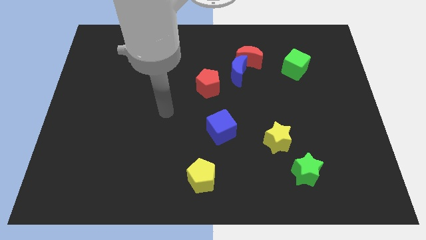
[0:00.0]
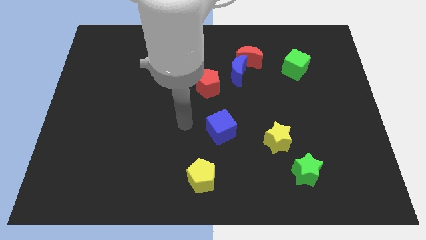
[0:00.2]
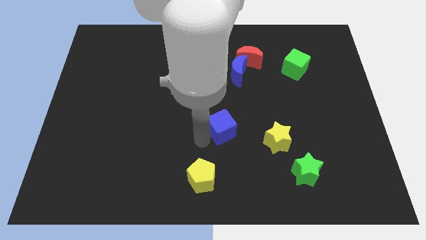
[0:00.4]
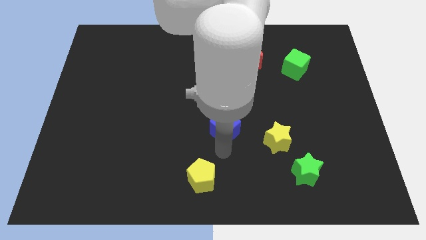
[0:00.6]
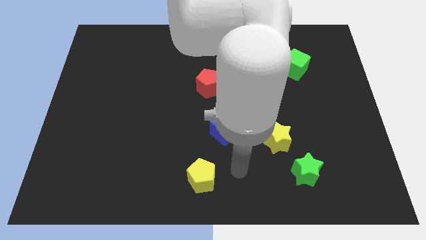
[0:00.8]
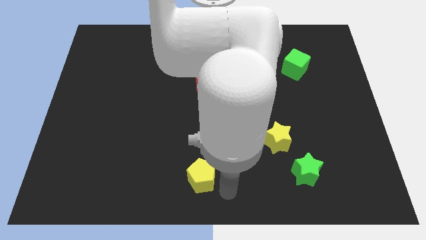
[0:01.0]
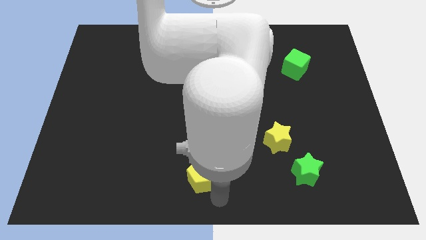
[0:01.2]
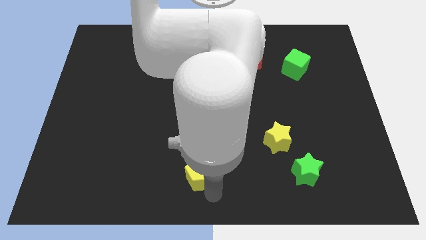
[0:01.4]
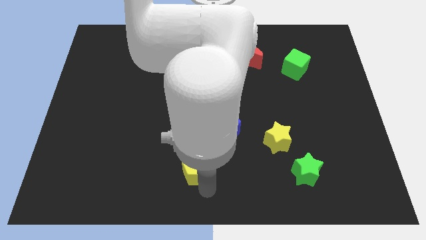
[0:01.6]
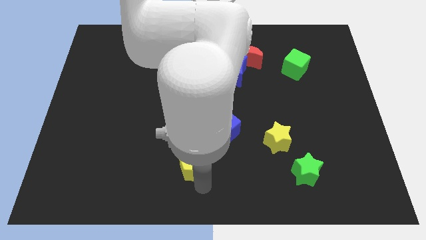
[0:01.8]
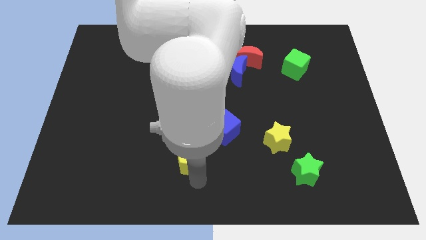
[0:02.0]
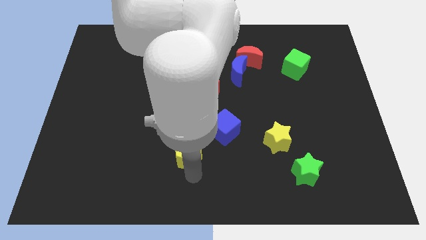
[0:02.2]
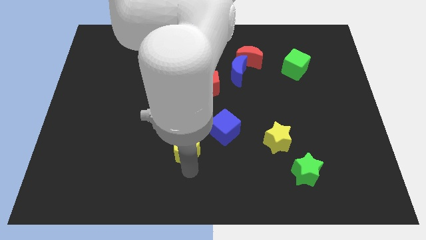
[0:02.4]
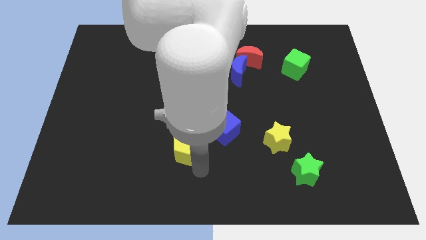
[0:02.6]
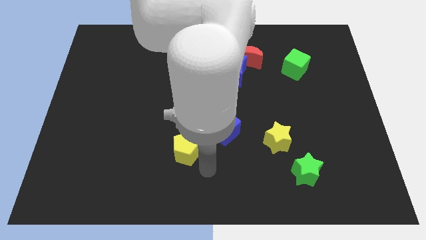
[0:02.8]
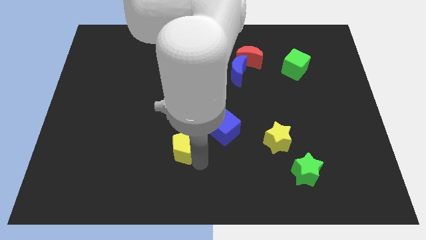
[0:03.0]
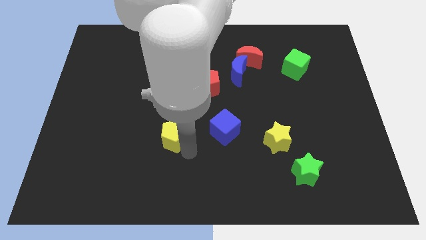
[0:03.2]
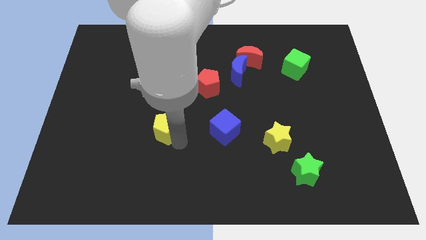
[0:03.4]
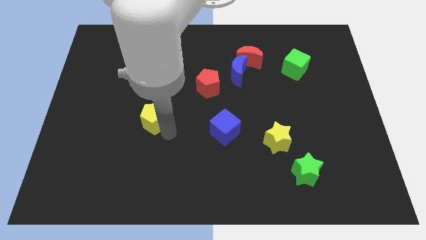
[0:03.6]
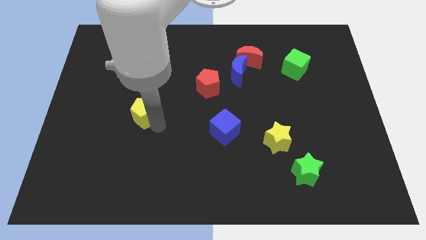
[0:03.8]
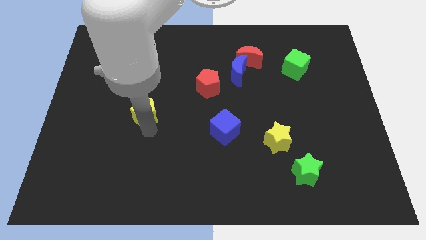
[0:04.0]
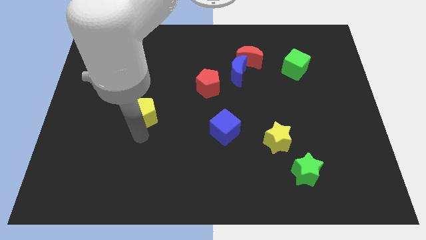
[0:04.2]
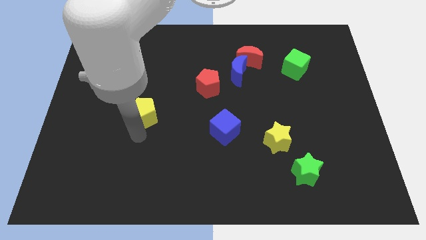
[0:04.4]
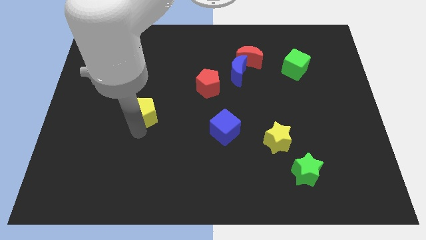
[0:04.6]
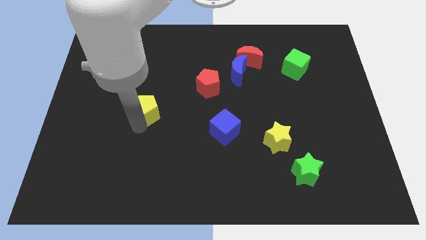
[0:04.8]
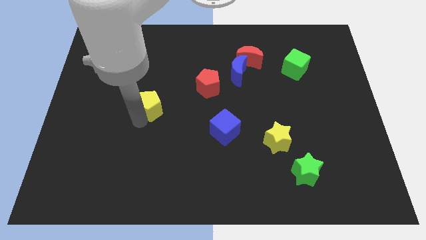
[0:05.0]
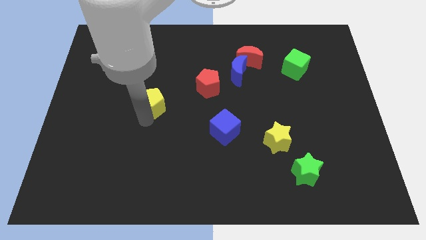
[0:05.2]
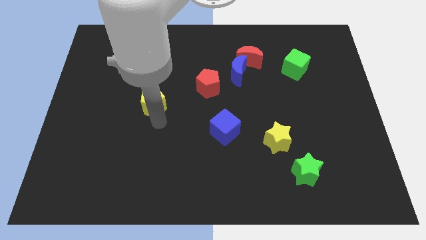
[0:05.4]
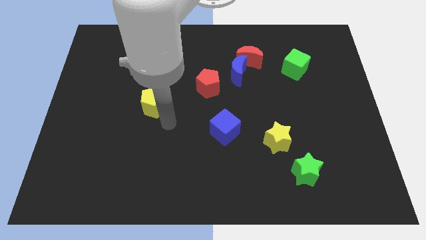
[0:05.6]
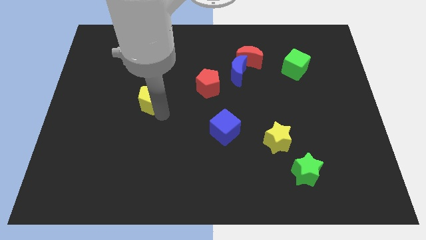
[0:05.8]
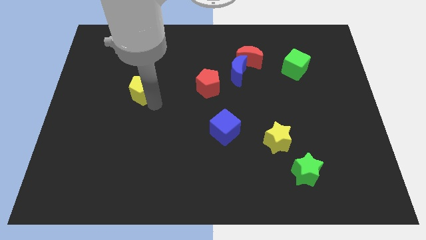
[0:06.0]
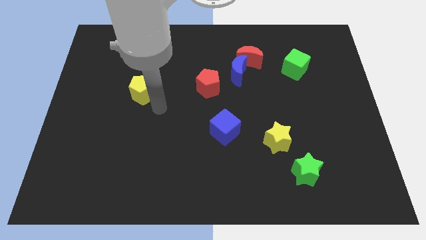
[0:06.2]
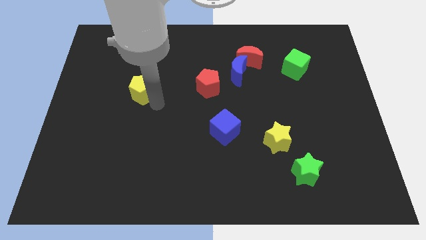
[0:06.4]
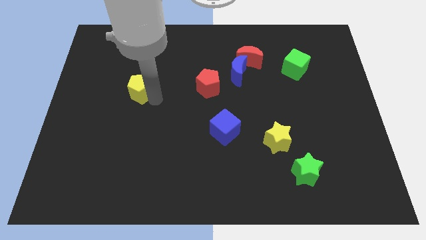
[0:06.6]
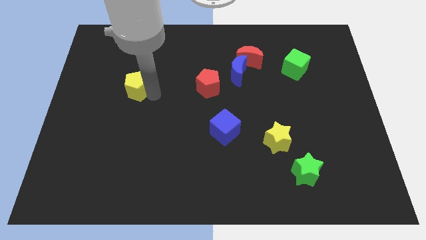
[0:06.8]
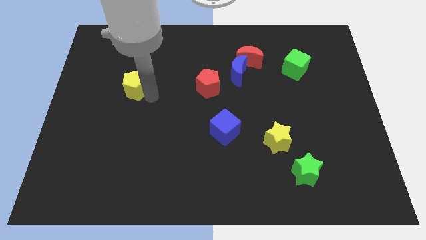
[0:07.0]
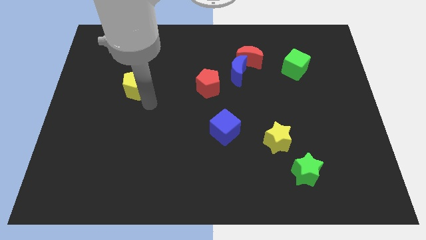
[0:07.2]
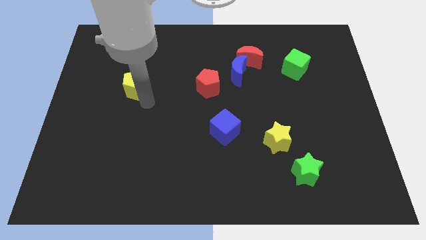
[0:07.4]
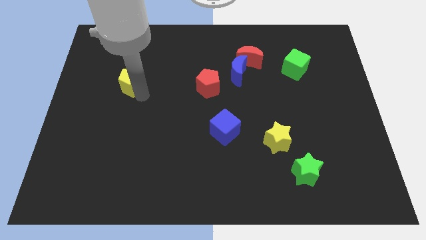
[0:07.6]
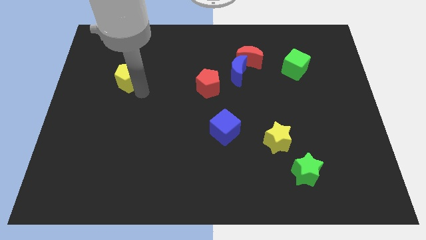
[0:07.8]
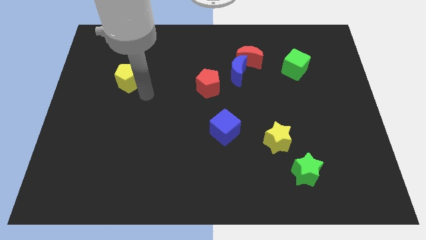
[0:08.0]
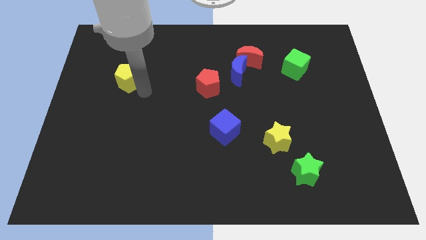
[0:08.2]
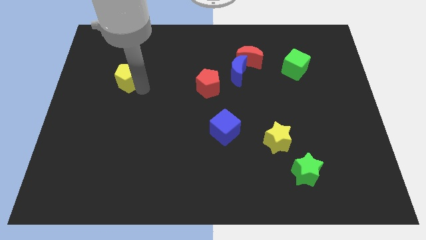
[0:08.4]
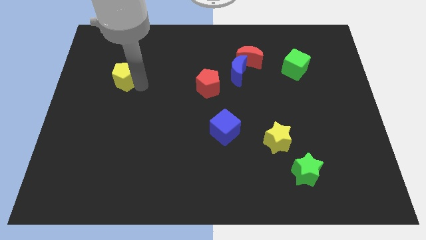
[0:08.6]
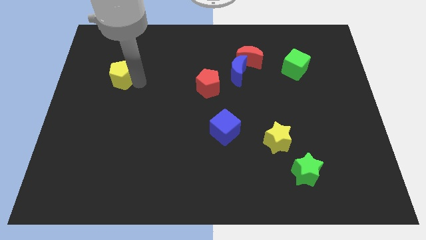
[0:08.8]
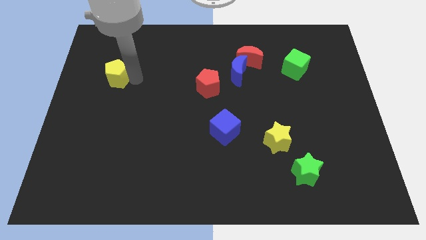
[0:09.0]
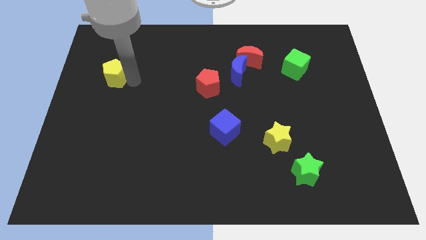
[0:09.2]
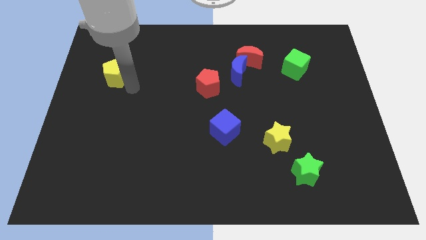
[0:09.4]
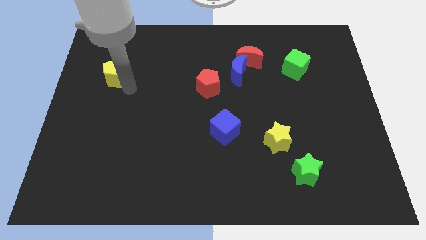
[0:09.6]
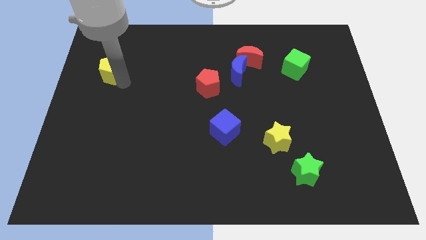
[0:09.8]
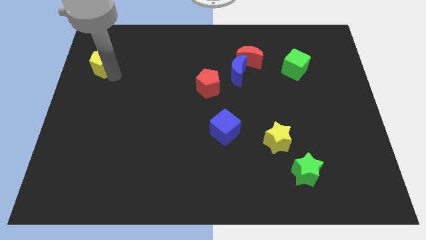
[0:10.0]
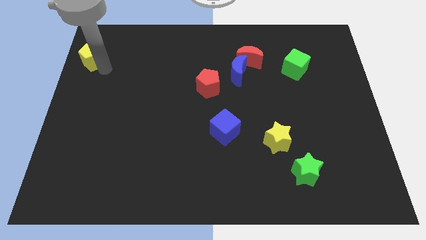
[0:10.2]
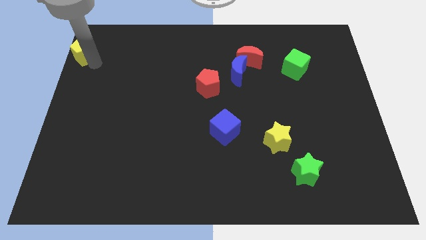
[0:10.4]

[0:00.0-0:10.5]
push the yellow pentagon to the top left corner
